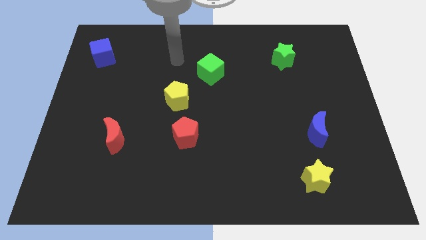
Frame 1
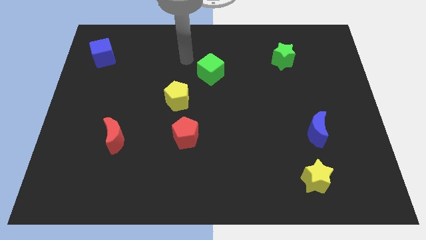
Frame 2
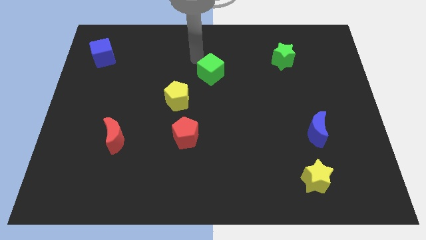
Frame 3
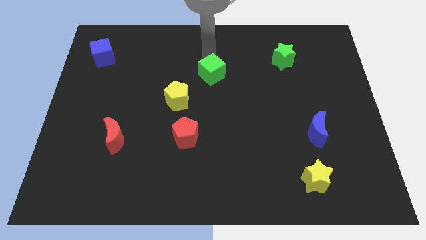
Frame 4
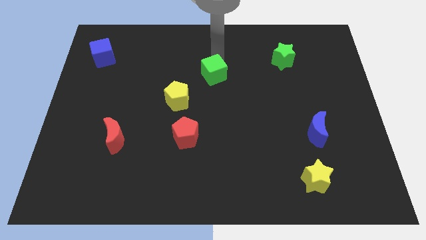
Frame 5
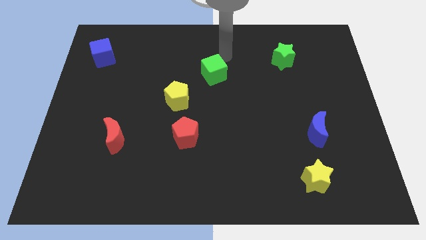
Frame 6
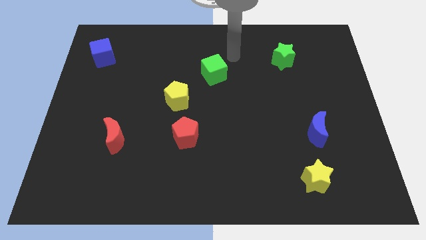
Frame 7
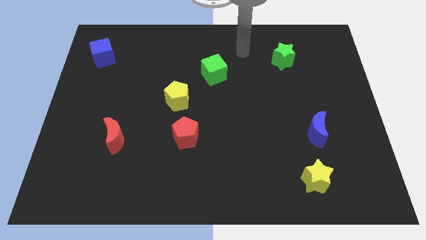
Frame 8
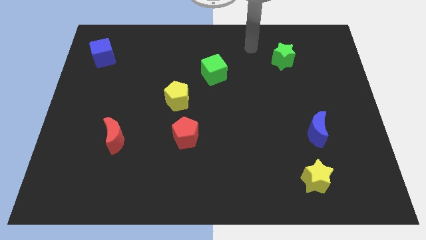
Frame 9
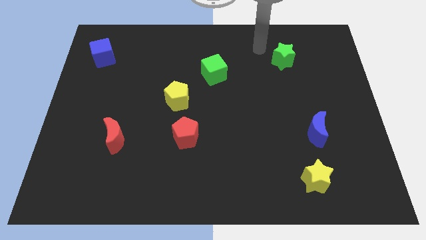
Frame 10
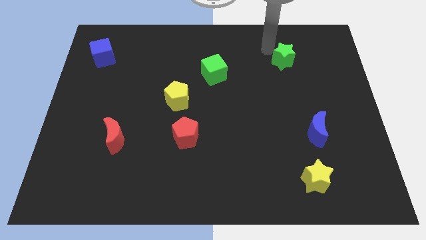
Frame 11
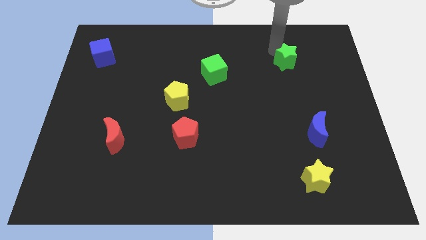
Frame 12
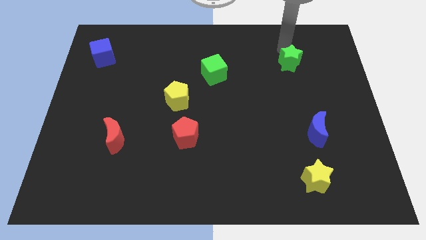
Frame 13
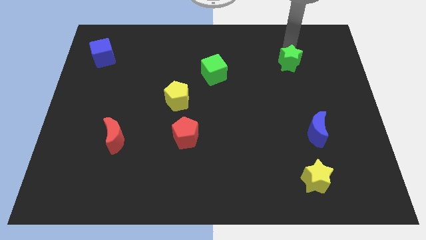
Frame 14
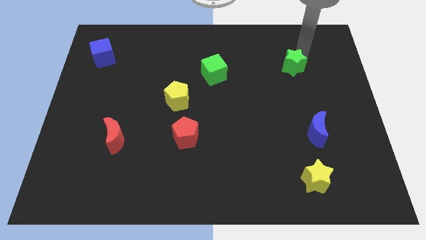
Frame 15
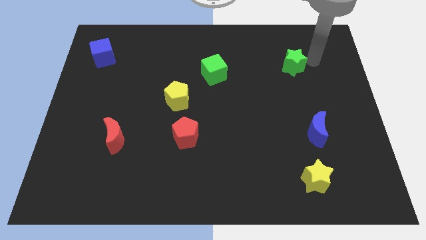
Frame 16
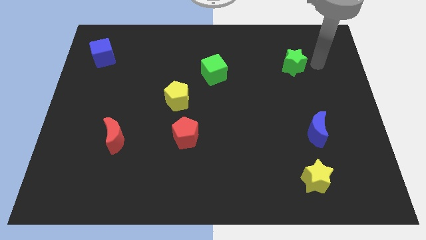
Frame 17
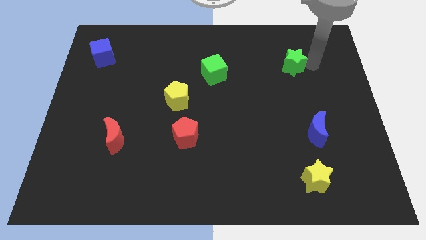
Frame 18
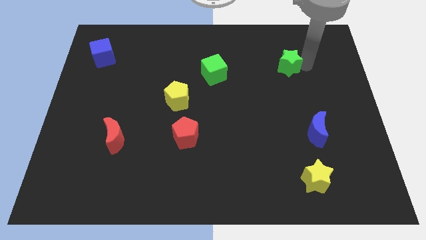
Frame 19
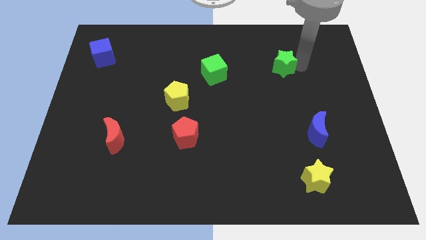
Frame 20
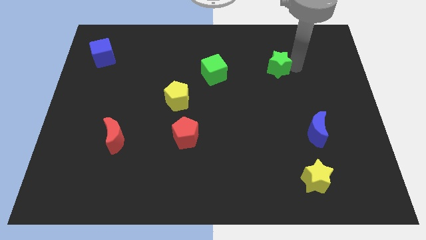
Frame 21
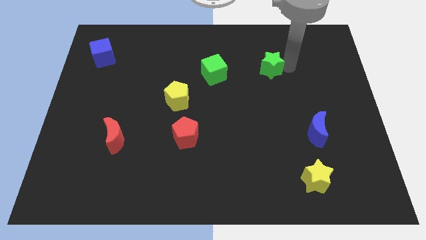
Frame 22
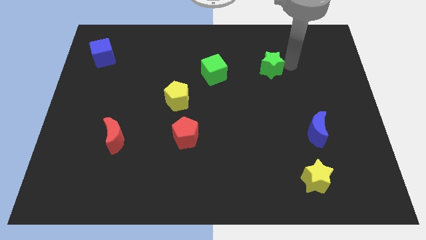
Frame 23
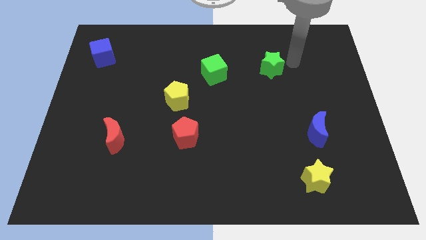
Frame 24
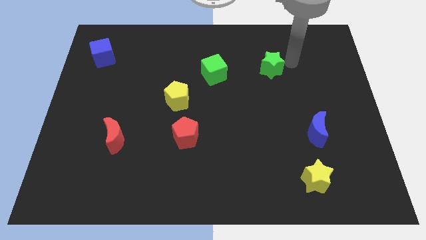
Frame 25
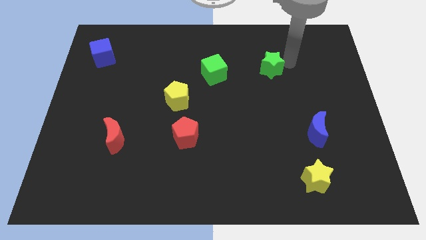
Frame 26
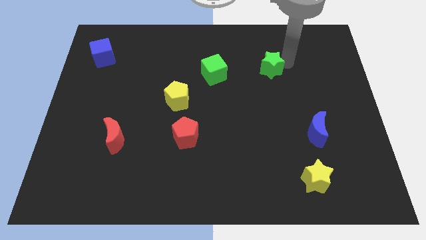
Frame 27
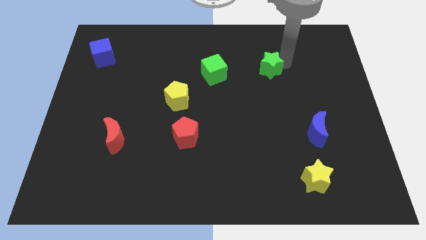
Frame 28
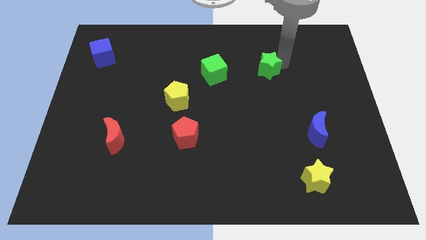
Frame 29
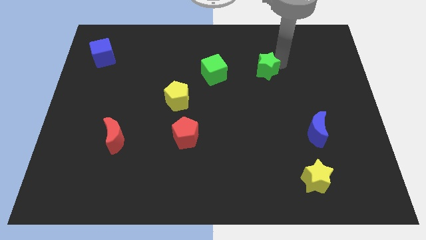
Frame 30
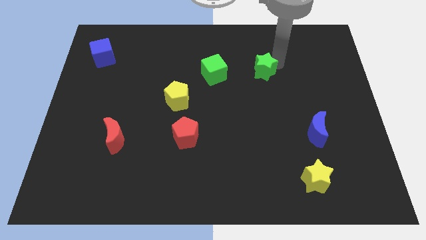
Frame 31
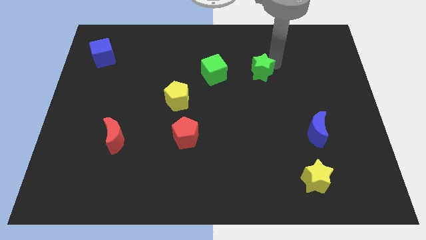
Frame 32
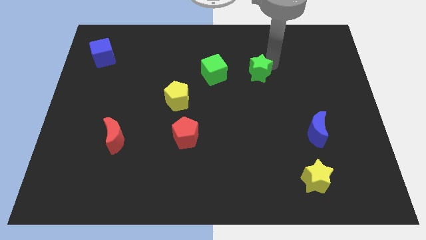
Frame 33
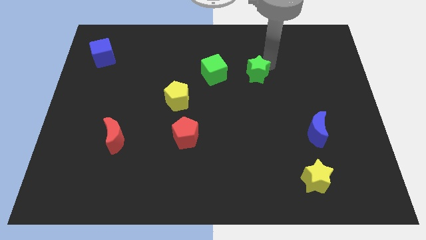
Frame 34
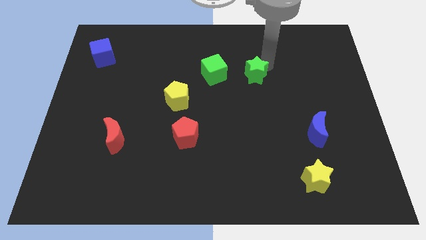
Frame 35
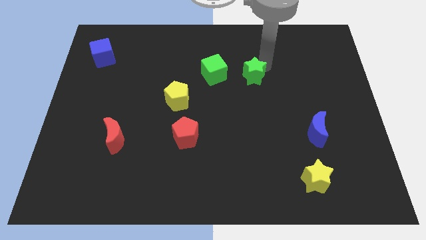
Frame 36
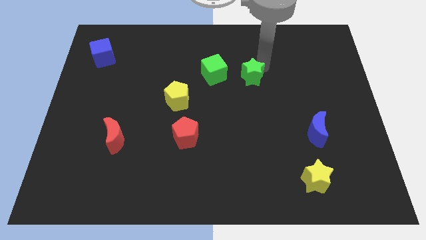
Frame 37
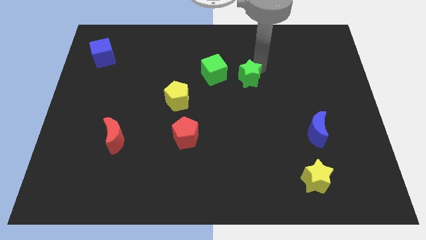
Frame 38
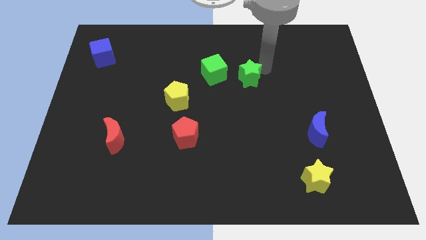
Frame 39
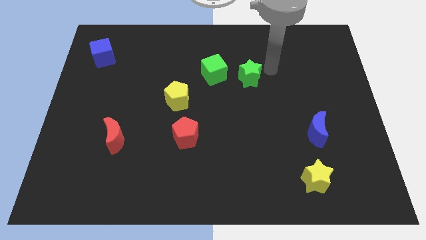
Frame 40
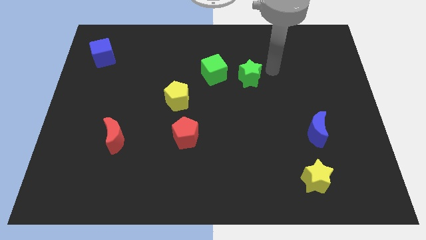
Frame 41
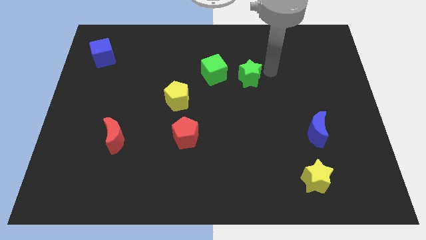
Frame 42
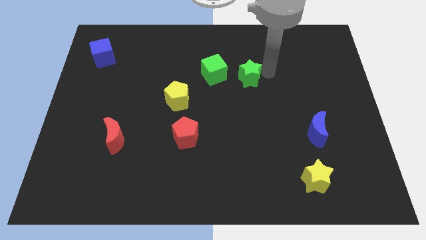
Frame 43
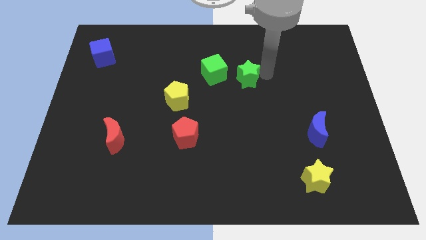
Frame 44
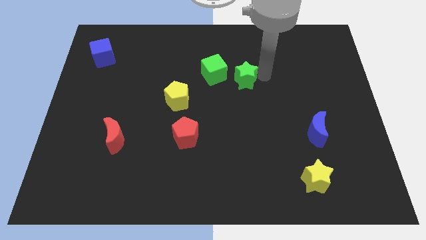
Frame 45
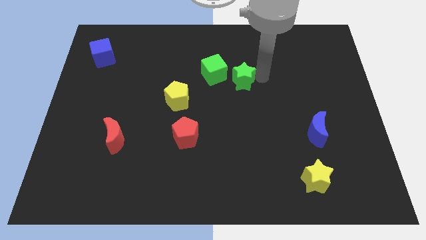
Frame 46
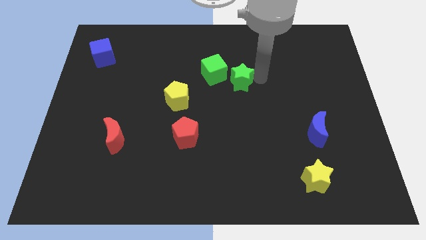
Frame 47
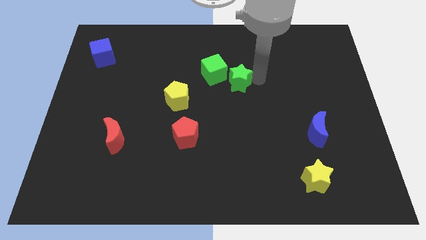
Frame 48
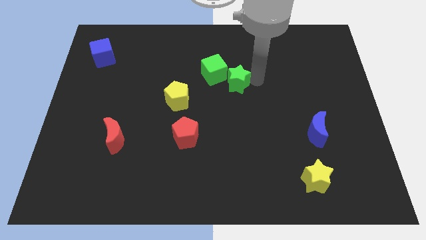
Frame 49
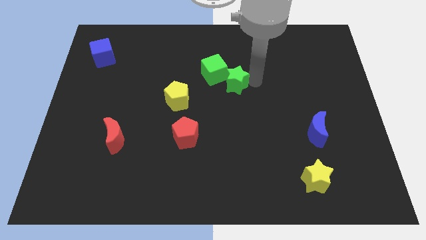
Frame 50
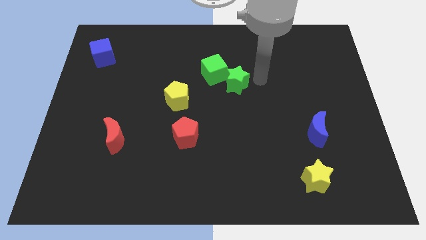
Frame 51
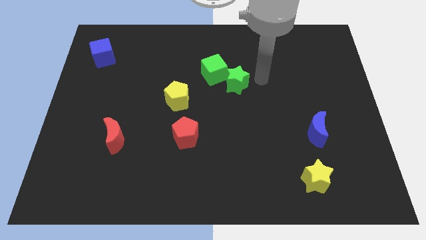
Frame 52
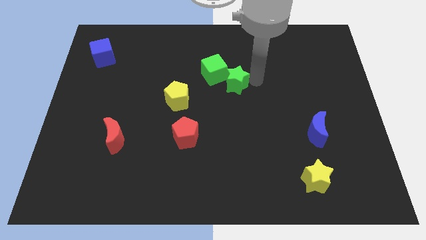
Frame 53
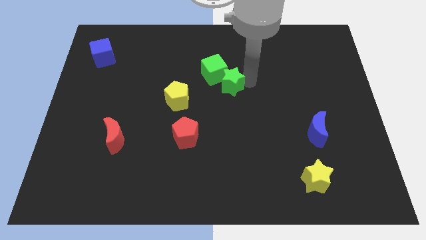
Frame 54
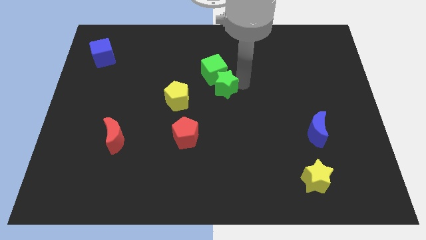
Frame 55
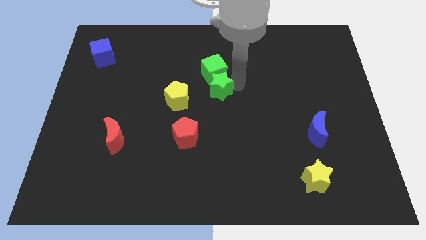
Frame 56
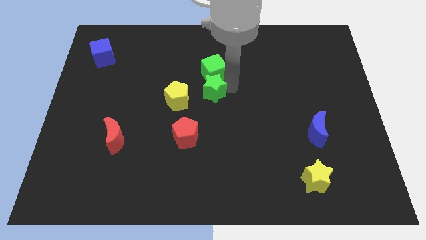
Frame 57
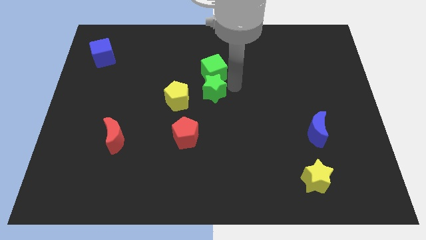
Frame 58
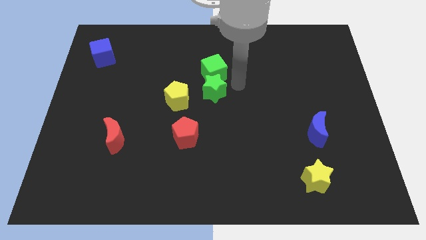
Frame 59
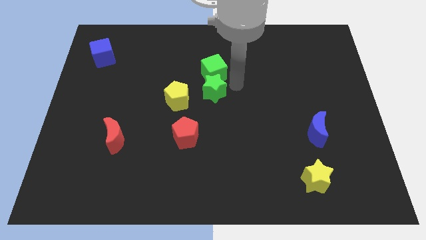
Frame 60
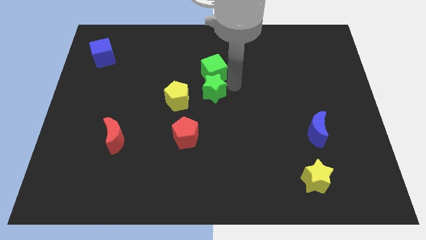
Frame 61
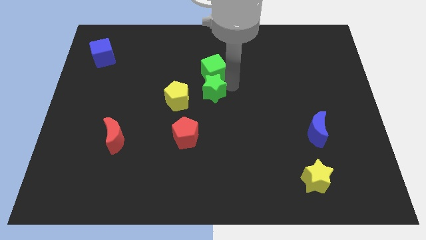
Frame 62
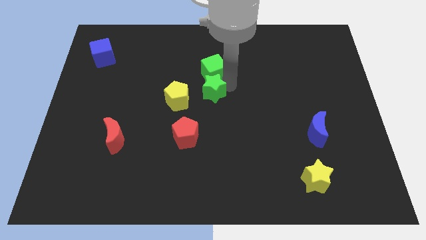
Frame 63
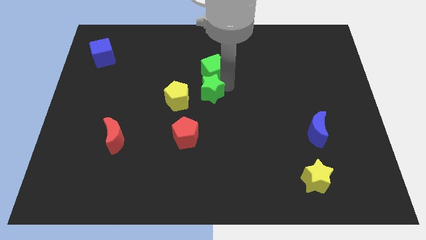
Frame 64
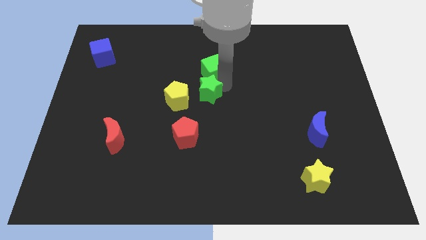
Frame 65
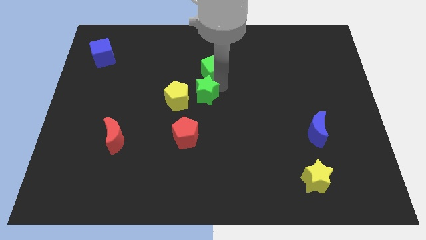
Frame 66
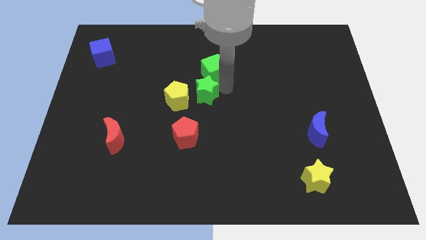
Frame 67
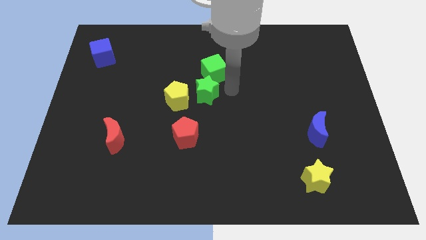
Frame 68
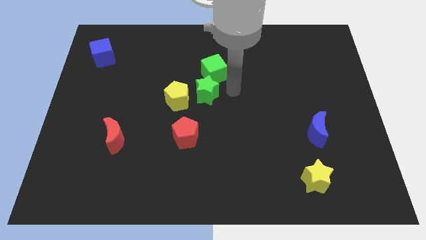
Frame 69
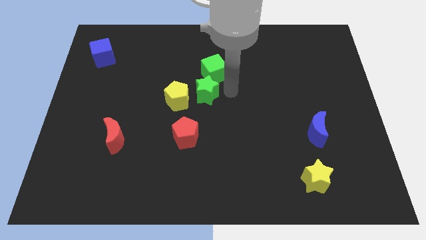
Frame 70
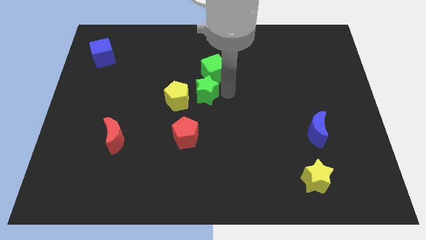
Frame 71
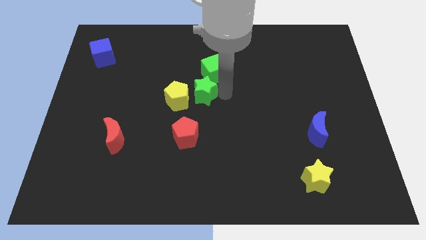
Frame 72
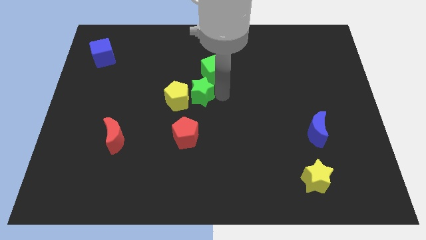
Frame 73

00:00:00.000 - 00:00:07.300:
move the green star towards the yellow pentagon

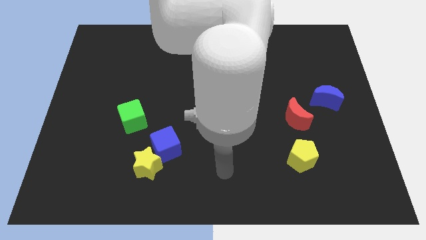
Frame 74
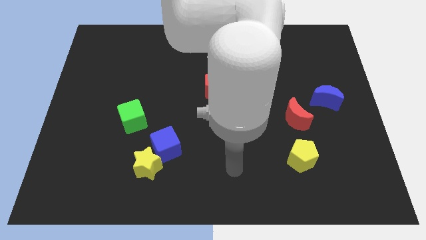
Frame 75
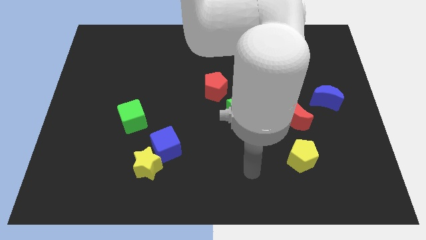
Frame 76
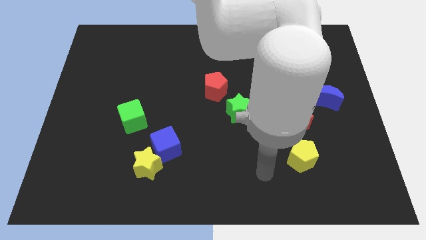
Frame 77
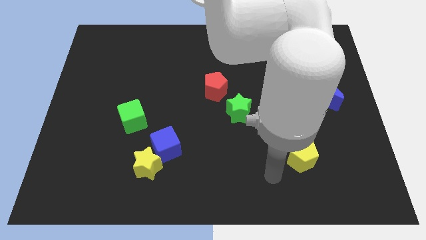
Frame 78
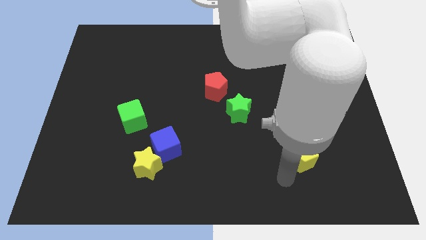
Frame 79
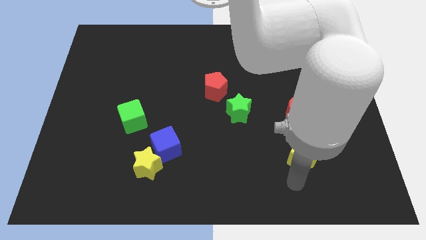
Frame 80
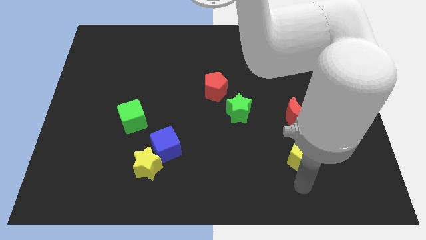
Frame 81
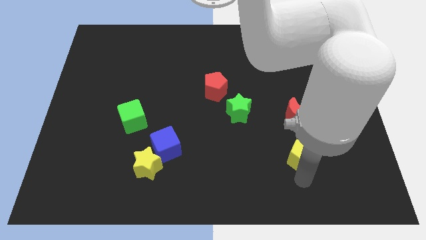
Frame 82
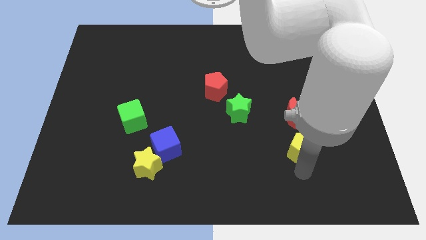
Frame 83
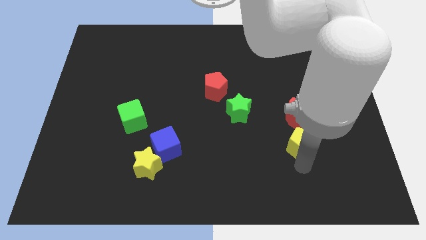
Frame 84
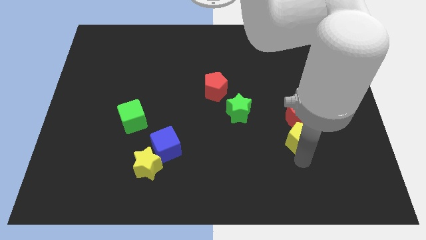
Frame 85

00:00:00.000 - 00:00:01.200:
push the yellow pentagon close to the red moon
